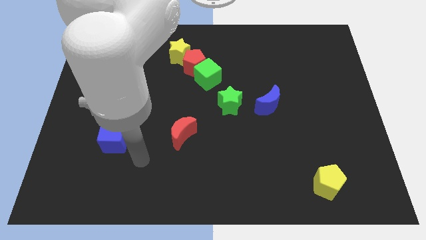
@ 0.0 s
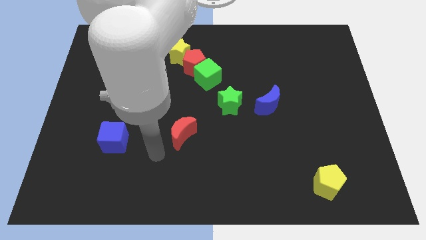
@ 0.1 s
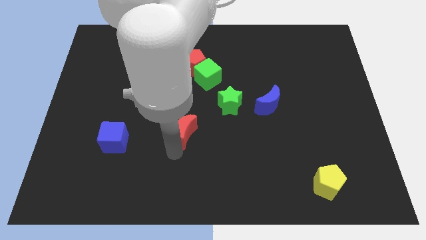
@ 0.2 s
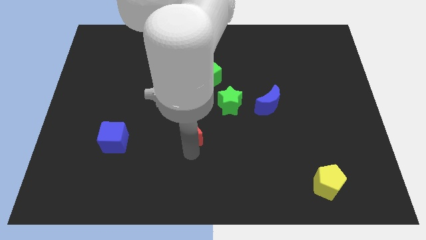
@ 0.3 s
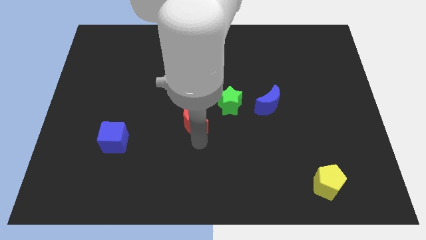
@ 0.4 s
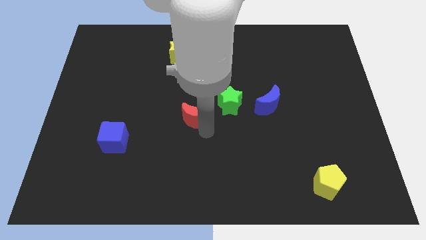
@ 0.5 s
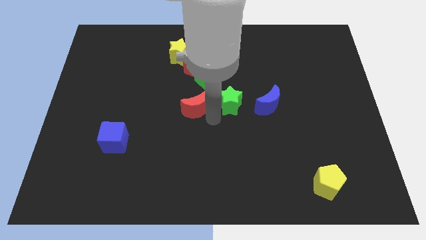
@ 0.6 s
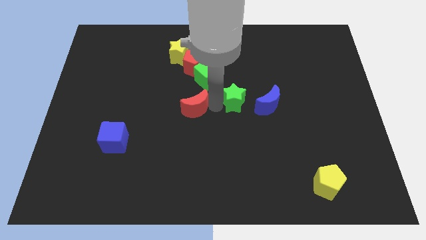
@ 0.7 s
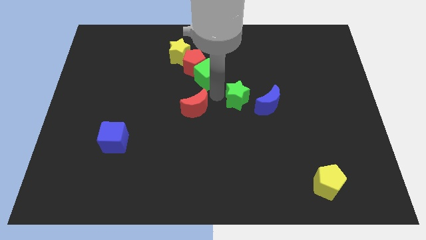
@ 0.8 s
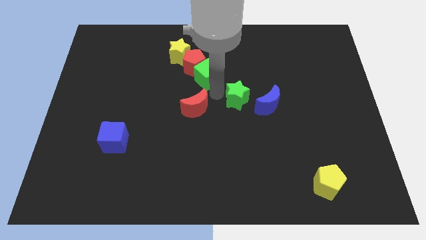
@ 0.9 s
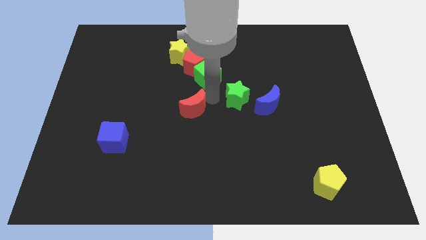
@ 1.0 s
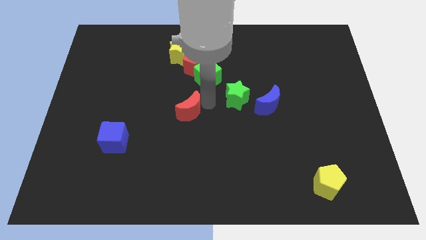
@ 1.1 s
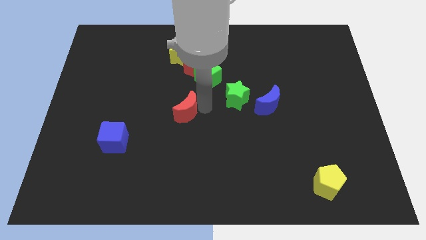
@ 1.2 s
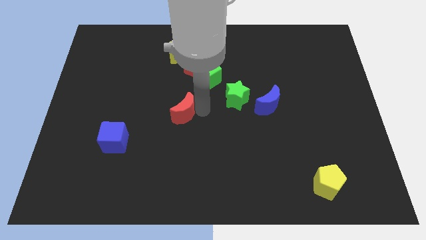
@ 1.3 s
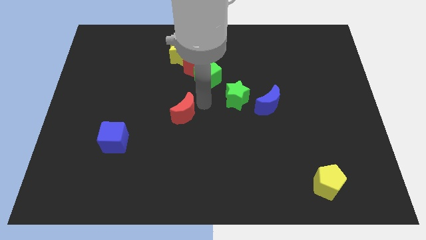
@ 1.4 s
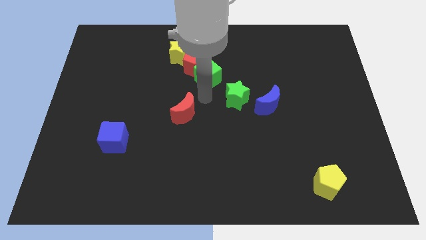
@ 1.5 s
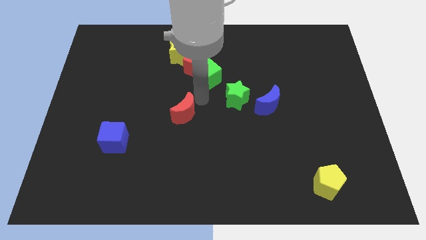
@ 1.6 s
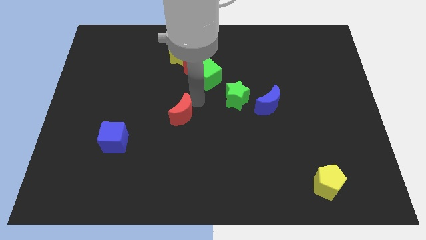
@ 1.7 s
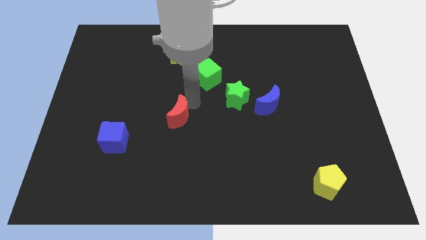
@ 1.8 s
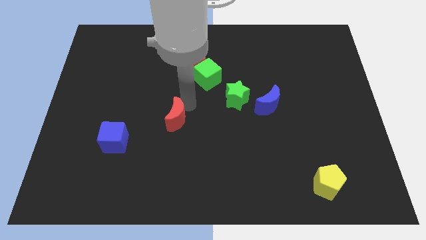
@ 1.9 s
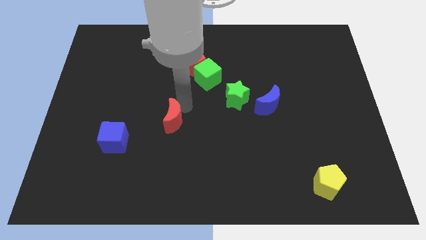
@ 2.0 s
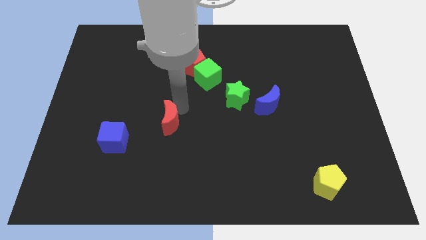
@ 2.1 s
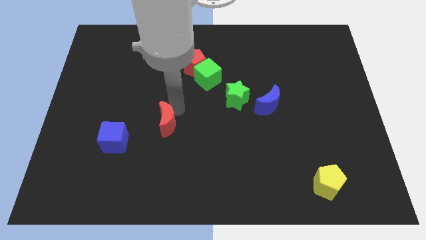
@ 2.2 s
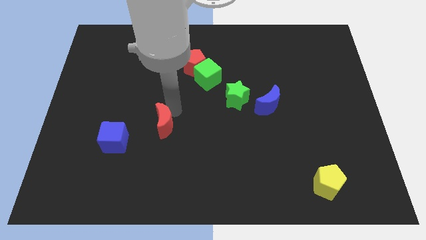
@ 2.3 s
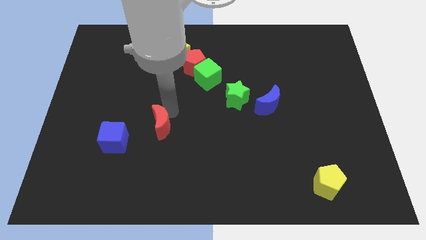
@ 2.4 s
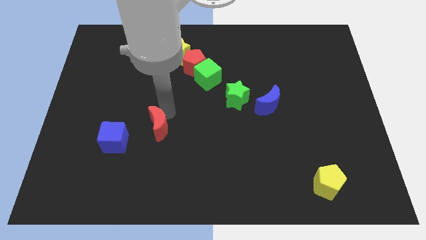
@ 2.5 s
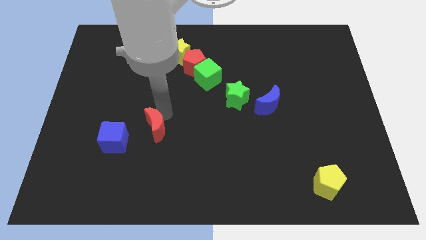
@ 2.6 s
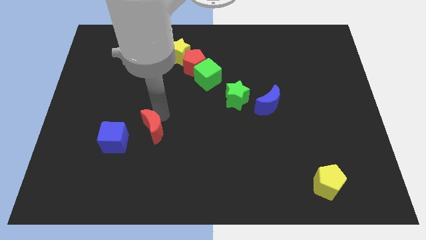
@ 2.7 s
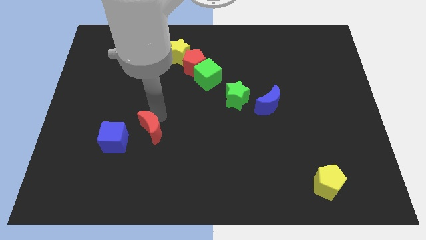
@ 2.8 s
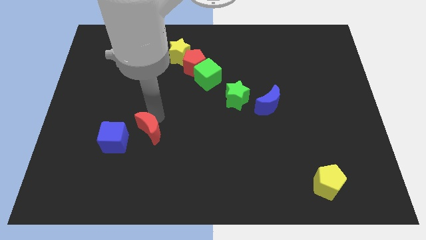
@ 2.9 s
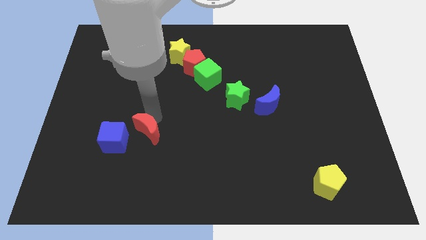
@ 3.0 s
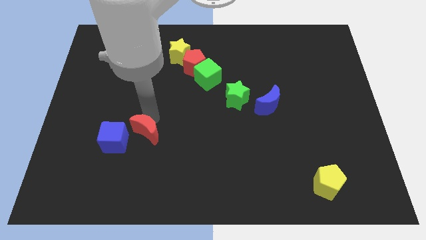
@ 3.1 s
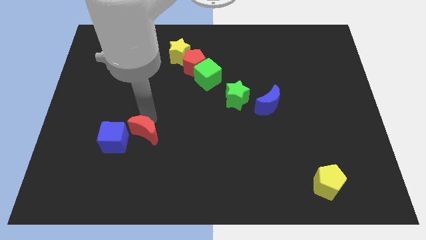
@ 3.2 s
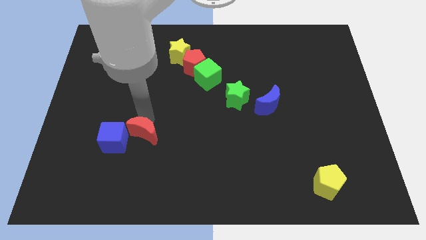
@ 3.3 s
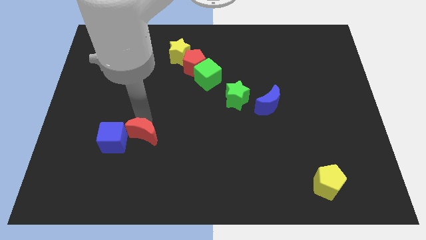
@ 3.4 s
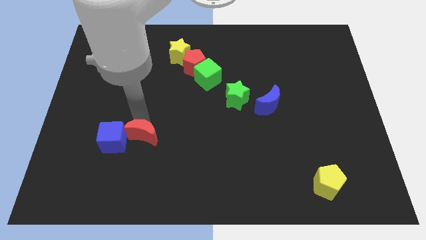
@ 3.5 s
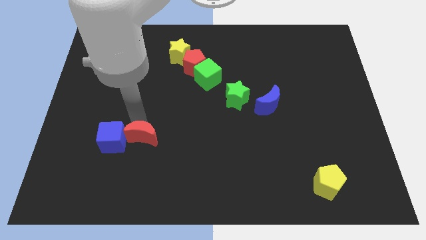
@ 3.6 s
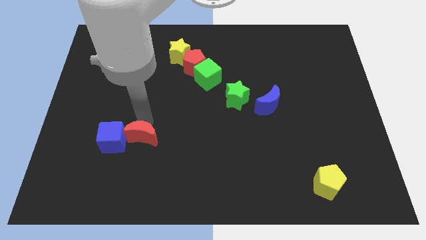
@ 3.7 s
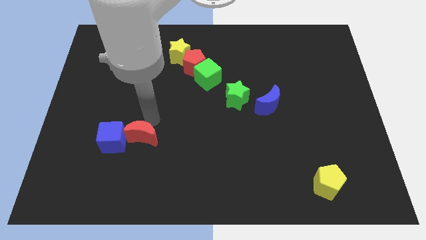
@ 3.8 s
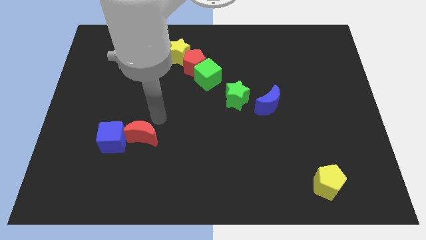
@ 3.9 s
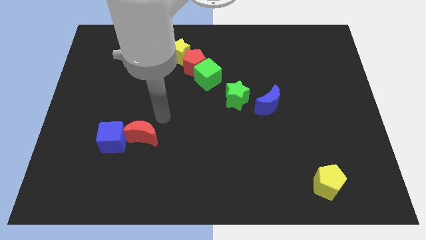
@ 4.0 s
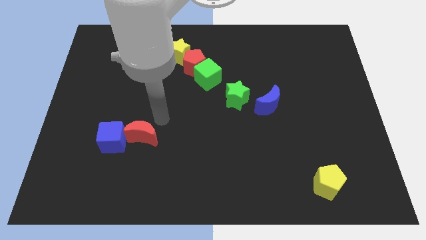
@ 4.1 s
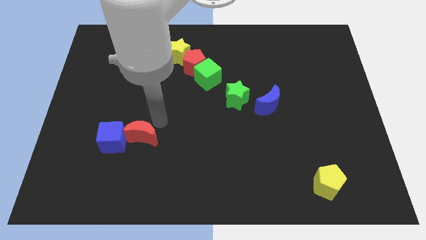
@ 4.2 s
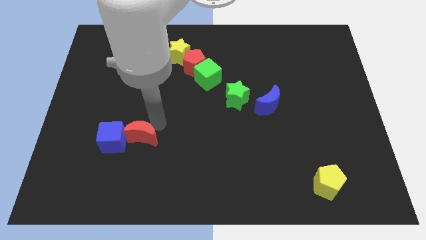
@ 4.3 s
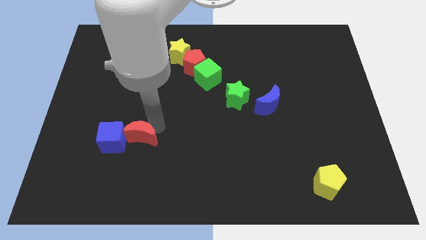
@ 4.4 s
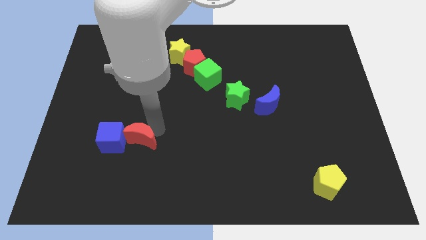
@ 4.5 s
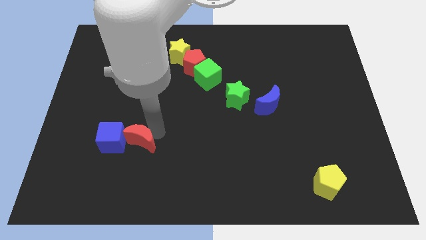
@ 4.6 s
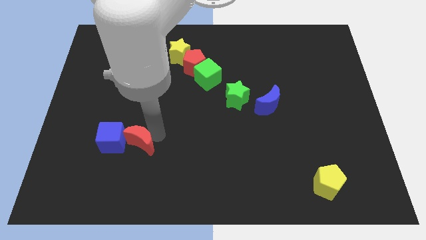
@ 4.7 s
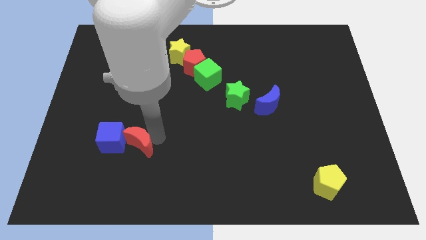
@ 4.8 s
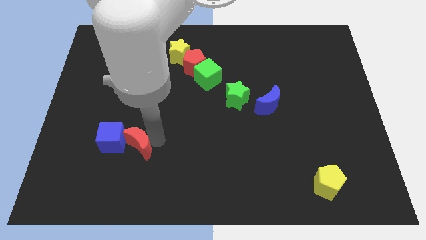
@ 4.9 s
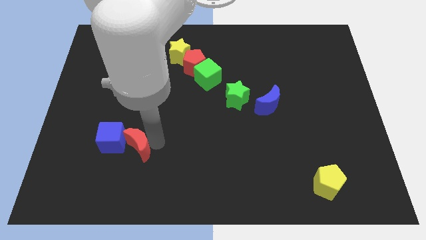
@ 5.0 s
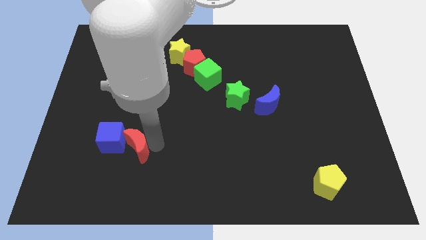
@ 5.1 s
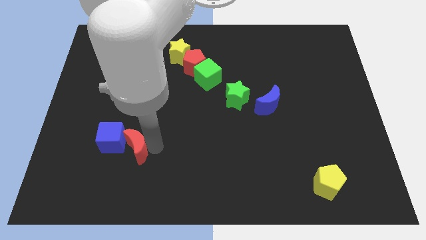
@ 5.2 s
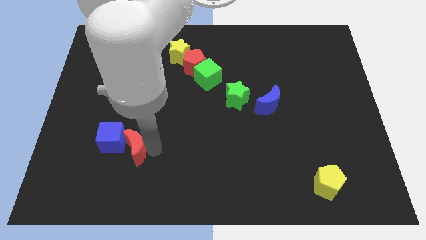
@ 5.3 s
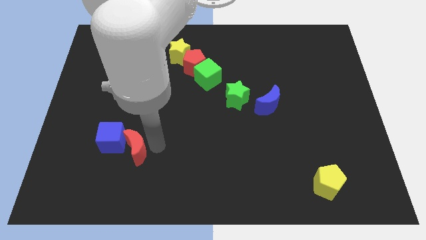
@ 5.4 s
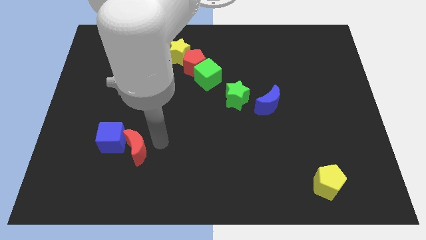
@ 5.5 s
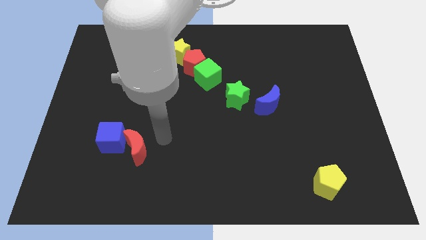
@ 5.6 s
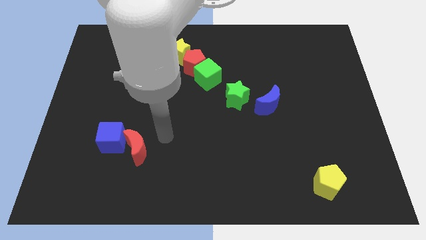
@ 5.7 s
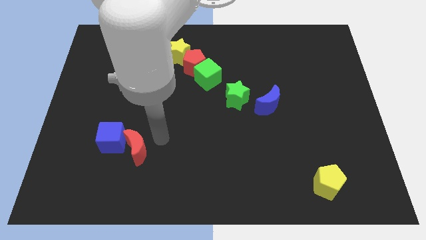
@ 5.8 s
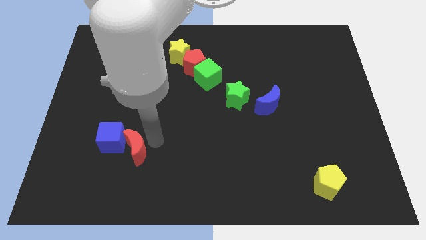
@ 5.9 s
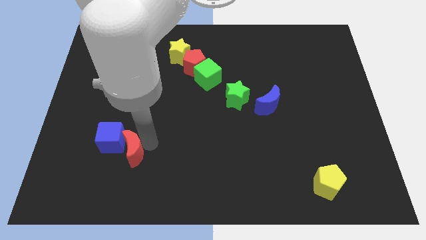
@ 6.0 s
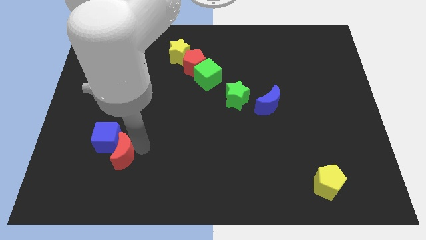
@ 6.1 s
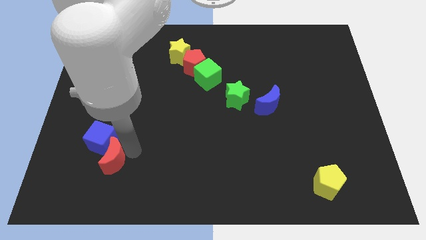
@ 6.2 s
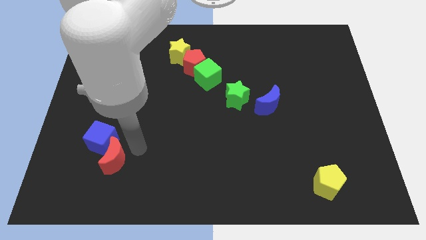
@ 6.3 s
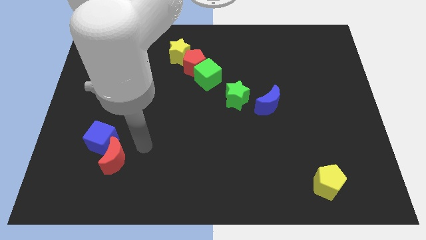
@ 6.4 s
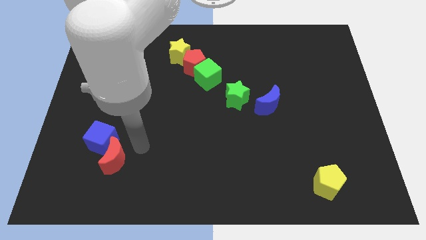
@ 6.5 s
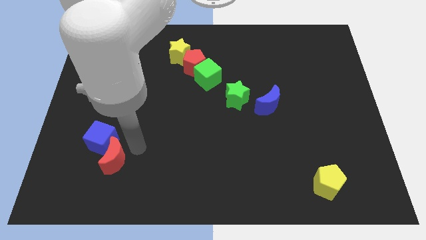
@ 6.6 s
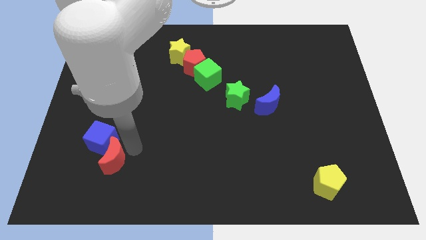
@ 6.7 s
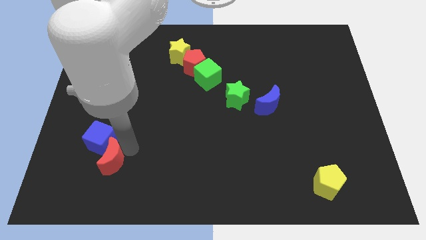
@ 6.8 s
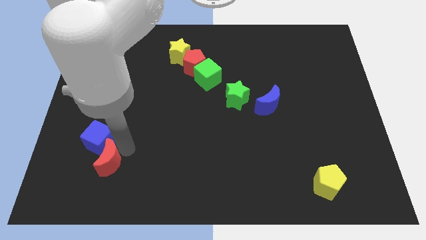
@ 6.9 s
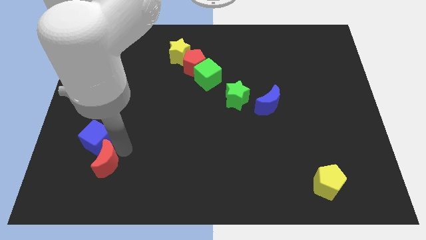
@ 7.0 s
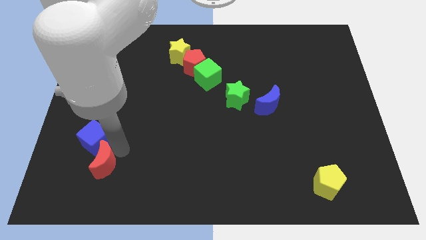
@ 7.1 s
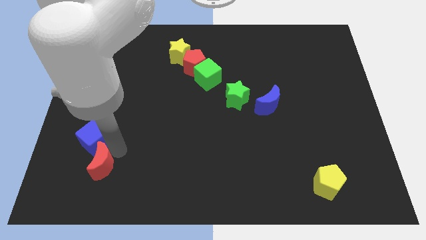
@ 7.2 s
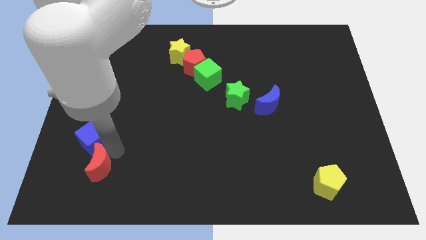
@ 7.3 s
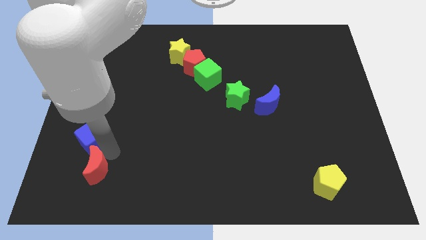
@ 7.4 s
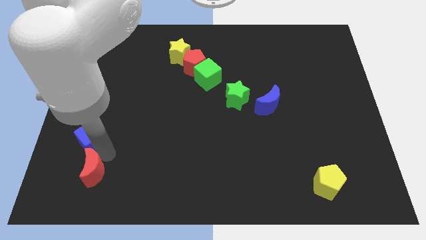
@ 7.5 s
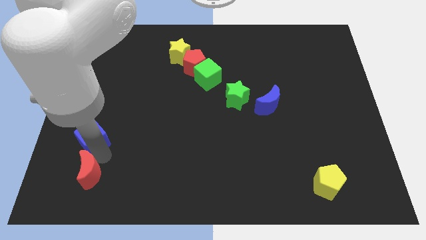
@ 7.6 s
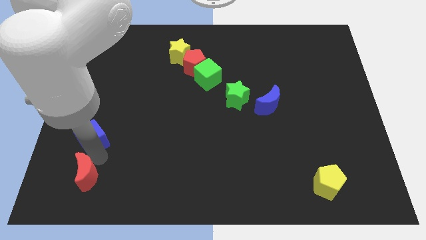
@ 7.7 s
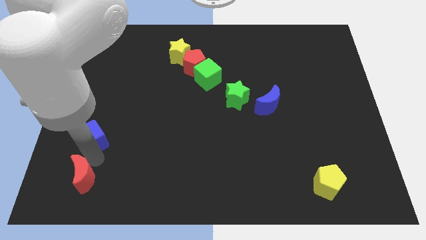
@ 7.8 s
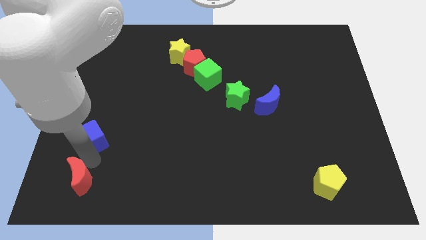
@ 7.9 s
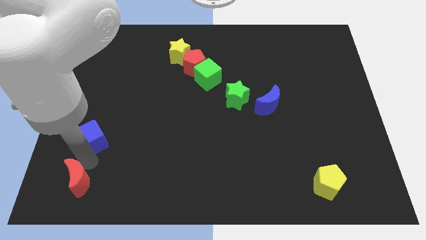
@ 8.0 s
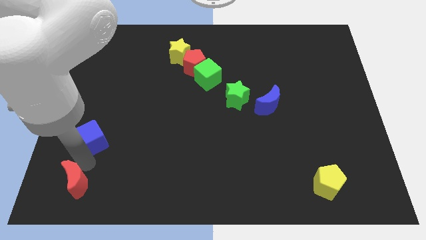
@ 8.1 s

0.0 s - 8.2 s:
put the red moon to the bottom left of the board
